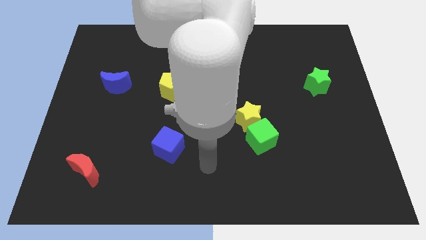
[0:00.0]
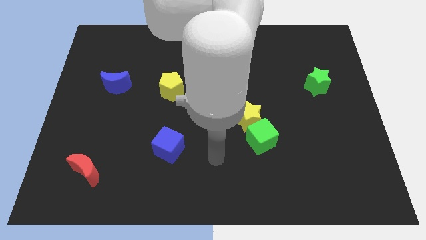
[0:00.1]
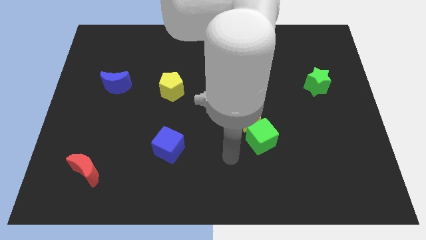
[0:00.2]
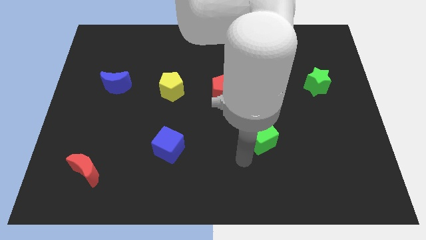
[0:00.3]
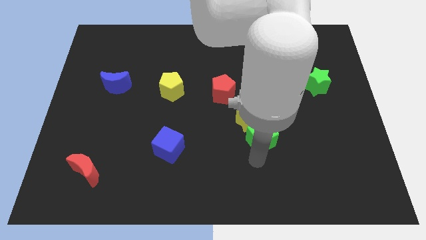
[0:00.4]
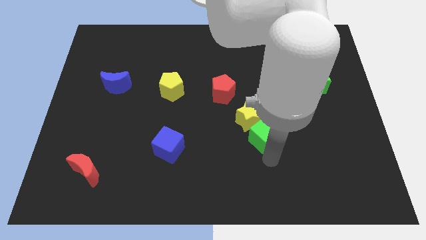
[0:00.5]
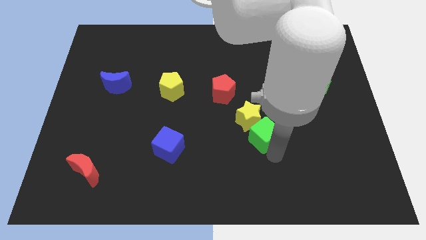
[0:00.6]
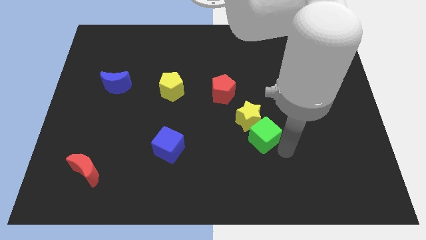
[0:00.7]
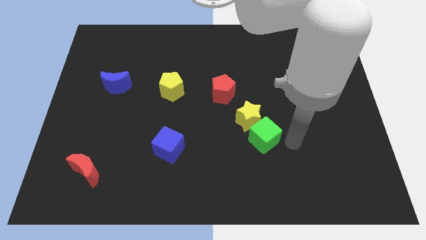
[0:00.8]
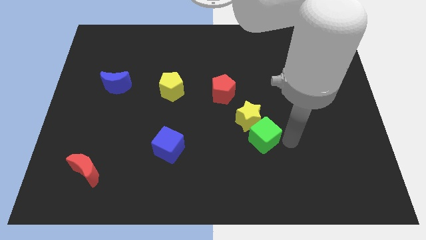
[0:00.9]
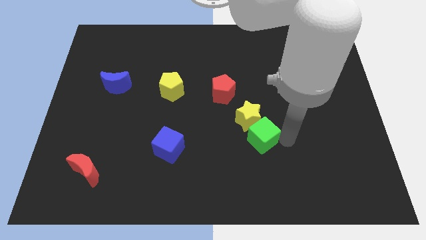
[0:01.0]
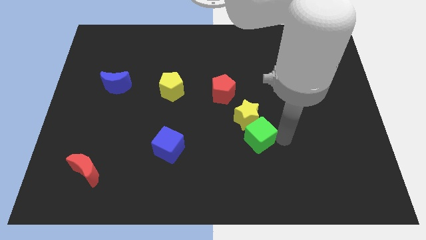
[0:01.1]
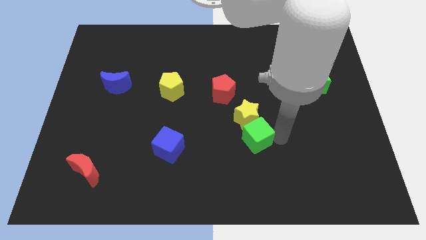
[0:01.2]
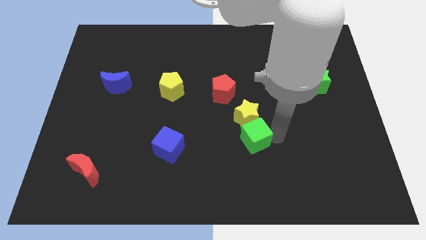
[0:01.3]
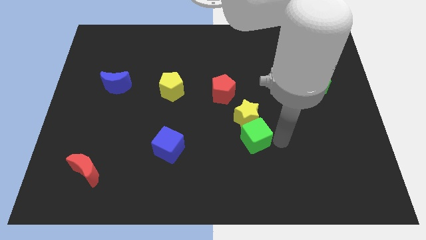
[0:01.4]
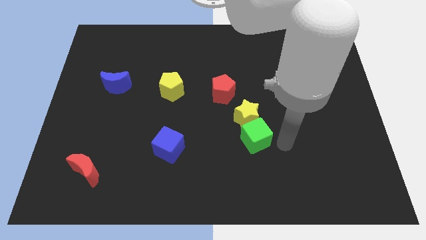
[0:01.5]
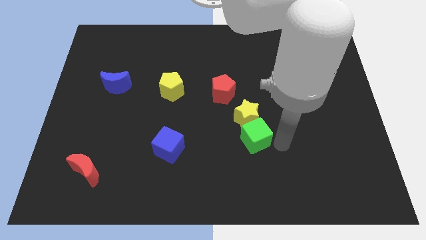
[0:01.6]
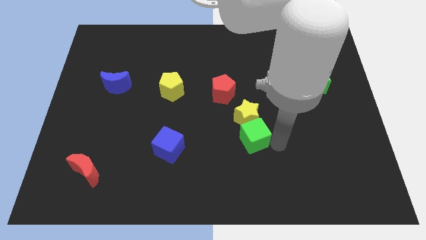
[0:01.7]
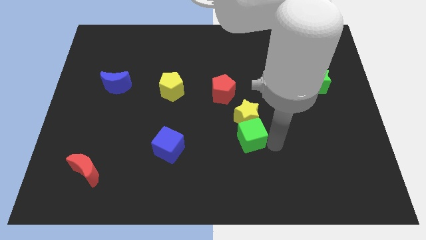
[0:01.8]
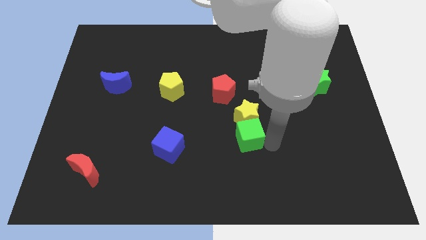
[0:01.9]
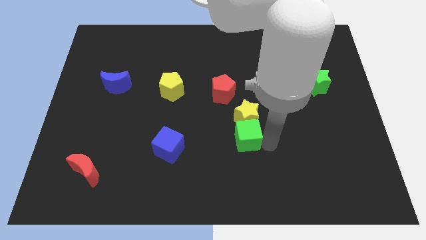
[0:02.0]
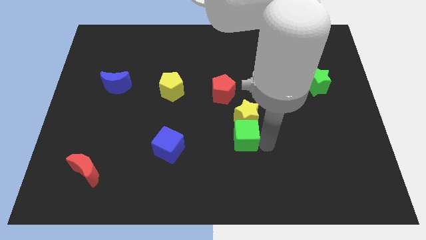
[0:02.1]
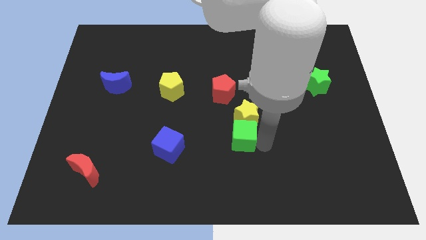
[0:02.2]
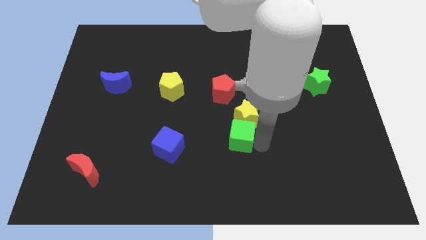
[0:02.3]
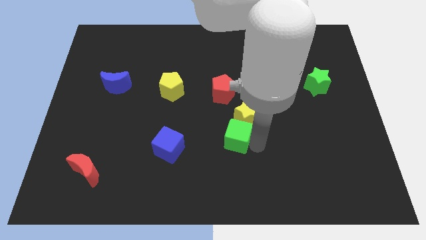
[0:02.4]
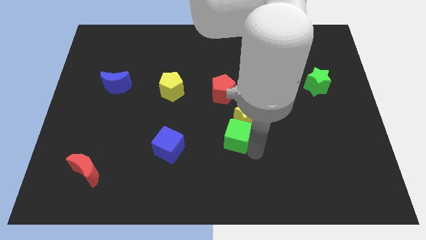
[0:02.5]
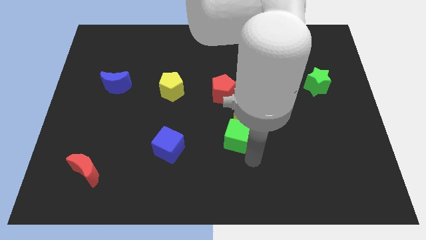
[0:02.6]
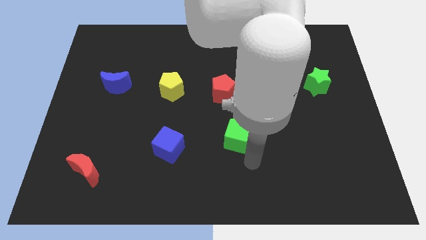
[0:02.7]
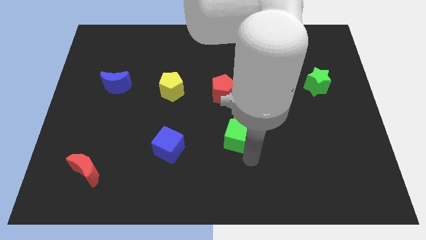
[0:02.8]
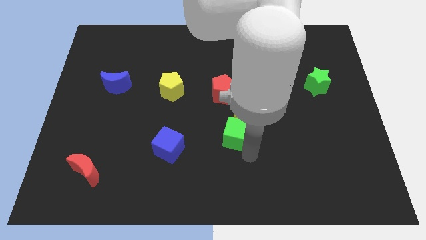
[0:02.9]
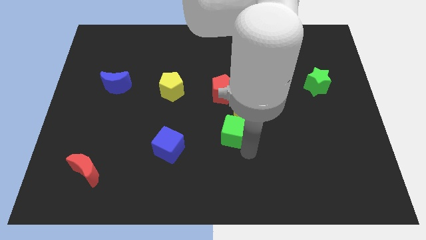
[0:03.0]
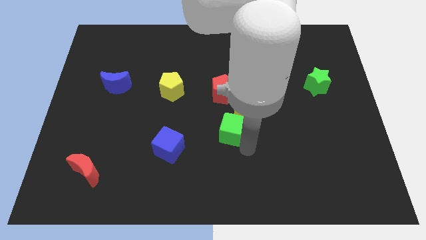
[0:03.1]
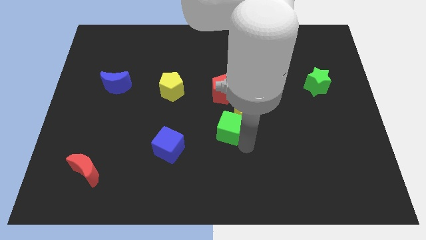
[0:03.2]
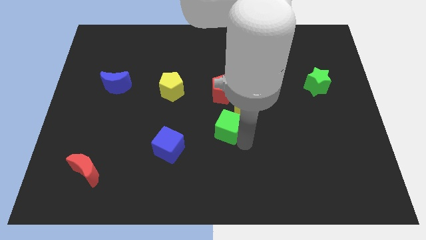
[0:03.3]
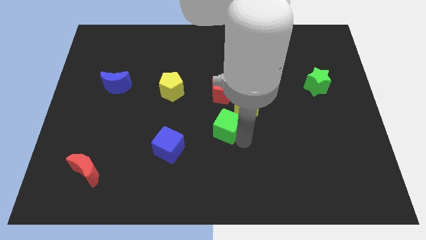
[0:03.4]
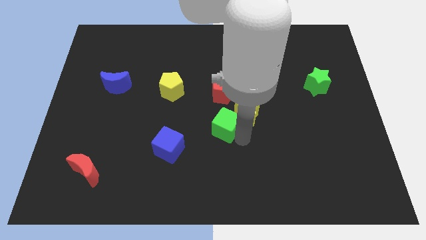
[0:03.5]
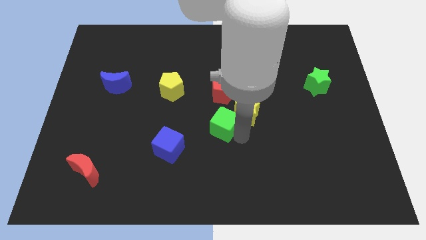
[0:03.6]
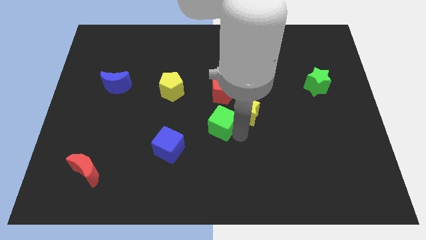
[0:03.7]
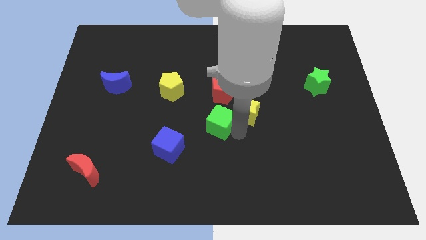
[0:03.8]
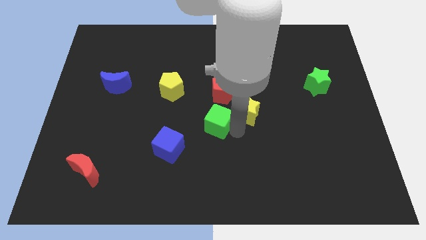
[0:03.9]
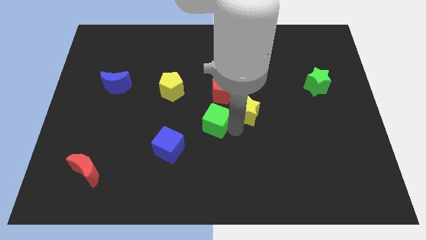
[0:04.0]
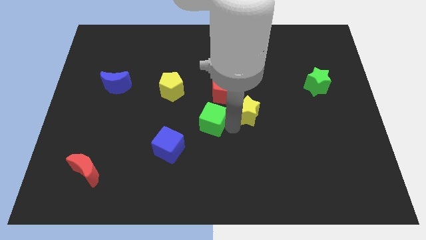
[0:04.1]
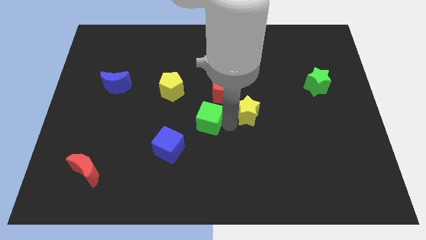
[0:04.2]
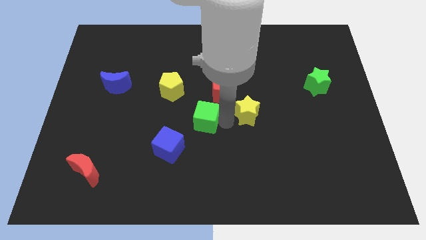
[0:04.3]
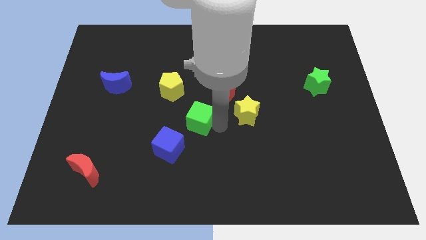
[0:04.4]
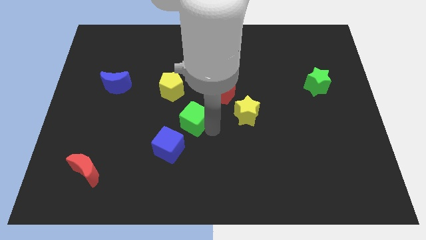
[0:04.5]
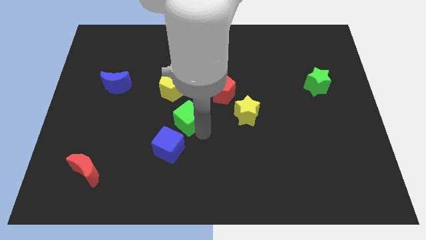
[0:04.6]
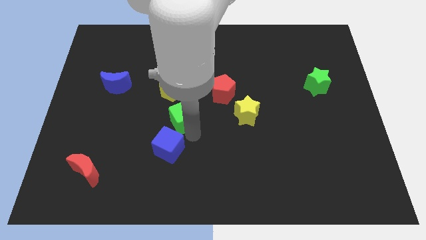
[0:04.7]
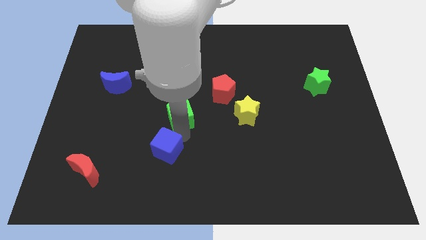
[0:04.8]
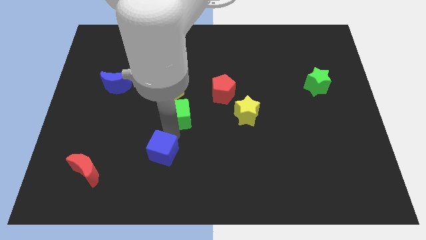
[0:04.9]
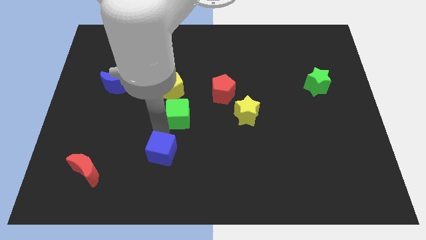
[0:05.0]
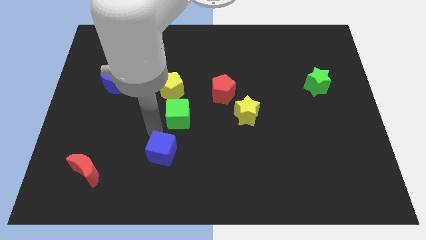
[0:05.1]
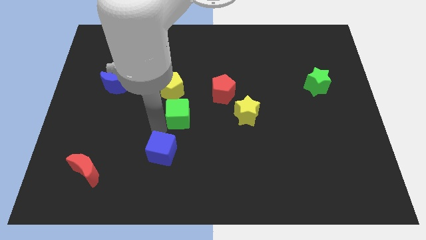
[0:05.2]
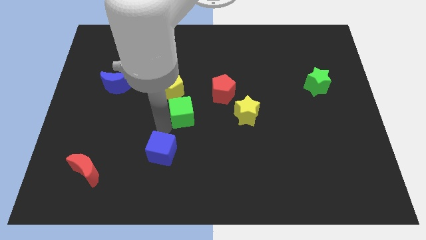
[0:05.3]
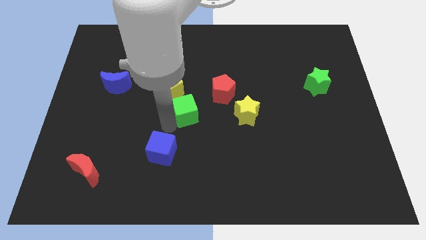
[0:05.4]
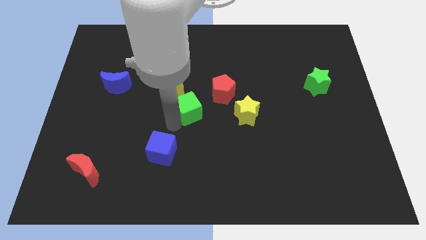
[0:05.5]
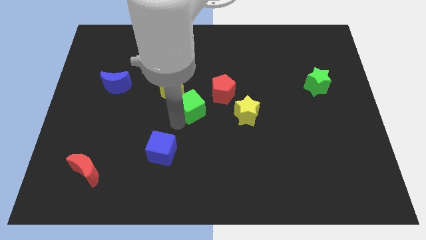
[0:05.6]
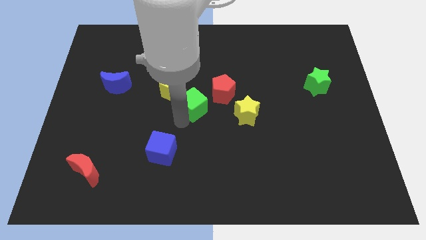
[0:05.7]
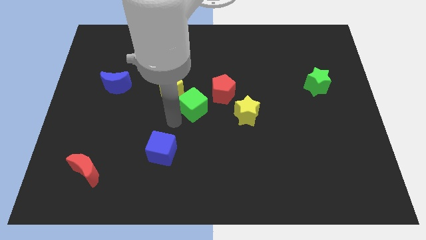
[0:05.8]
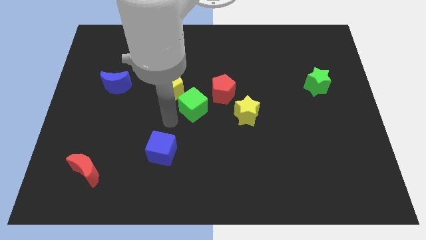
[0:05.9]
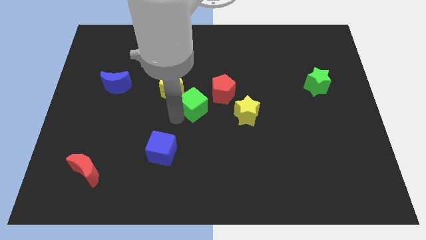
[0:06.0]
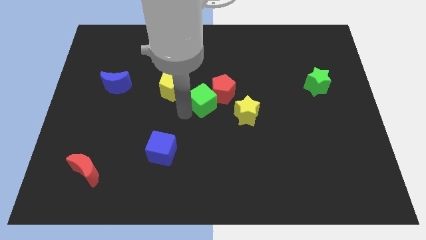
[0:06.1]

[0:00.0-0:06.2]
slide the green cube to the red pentagon
